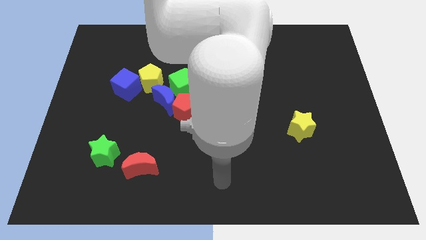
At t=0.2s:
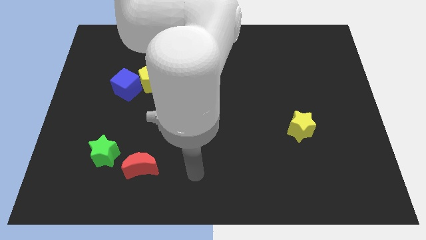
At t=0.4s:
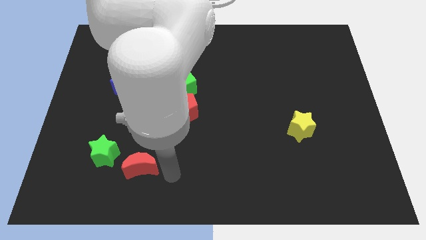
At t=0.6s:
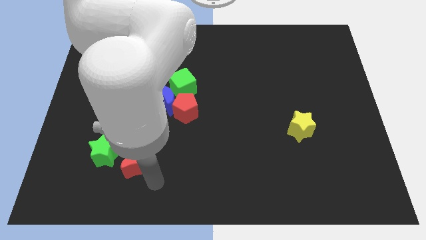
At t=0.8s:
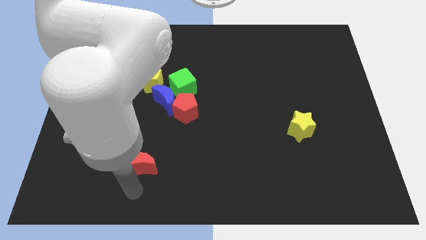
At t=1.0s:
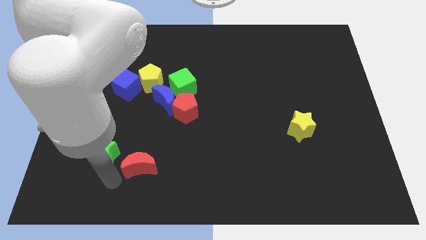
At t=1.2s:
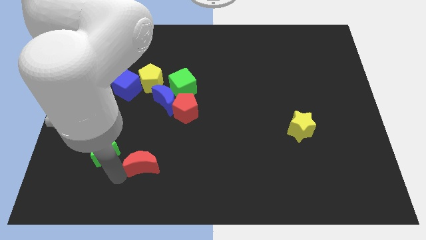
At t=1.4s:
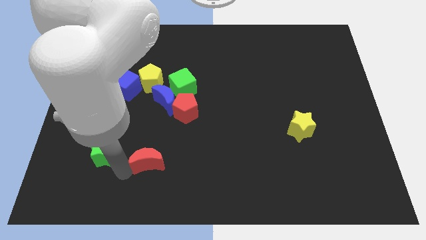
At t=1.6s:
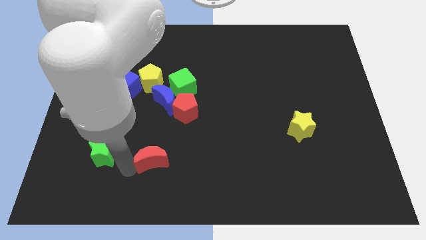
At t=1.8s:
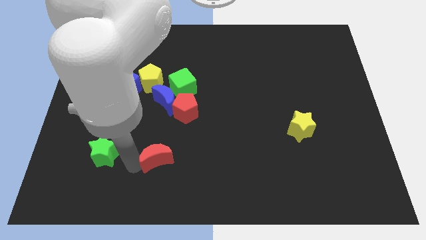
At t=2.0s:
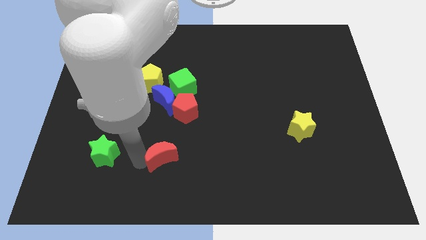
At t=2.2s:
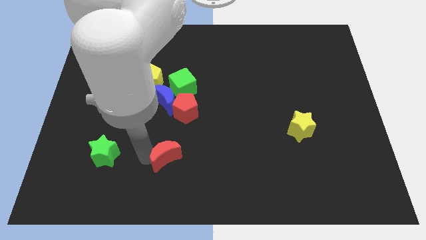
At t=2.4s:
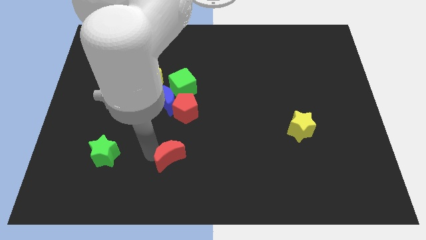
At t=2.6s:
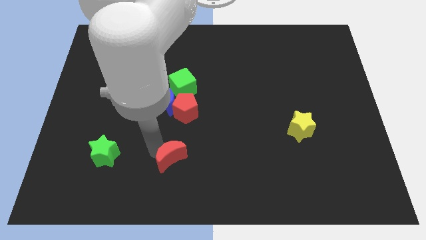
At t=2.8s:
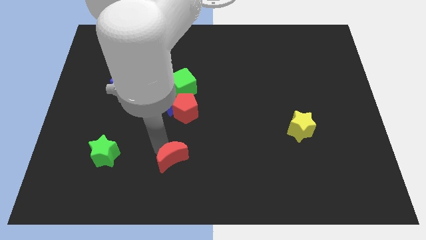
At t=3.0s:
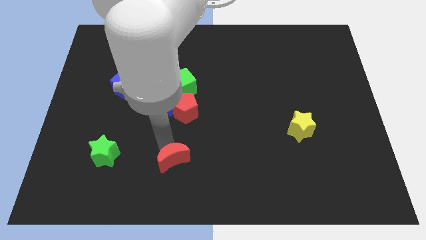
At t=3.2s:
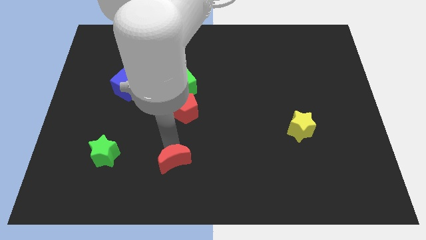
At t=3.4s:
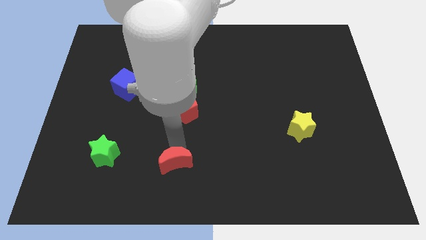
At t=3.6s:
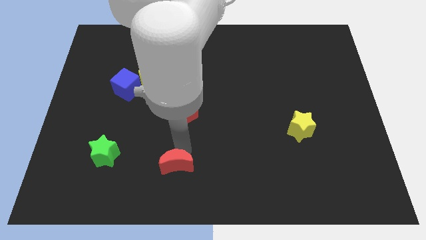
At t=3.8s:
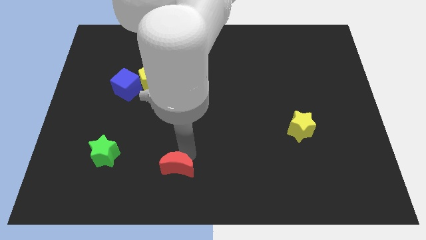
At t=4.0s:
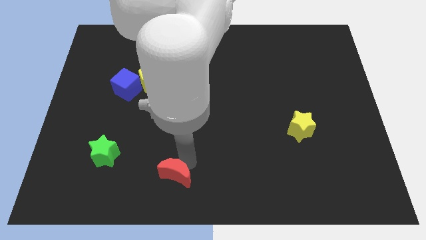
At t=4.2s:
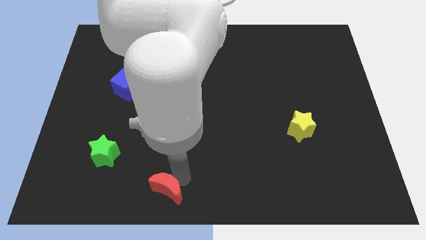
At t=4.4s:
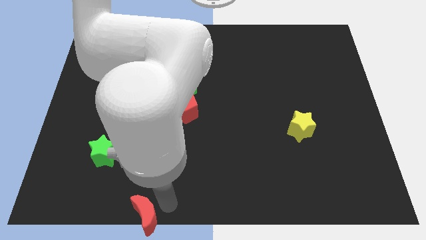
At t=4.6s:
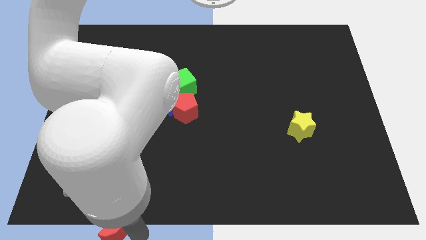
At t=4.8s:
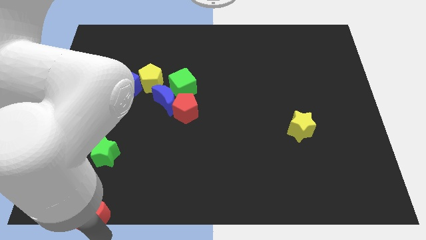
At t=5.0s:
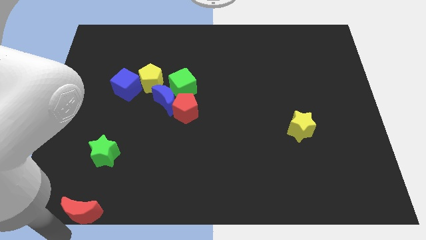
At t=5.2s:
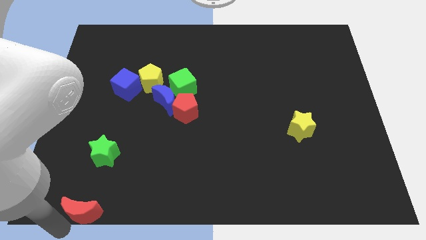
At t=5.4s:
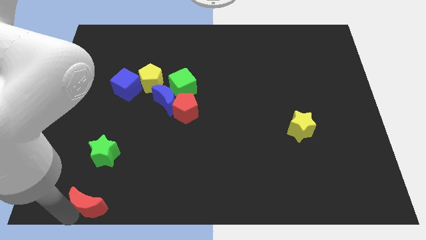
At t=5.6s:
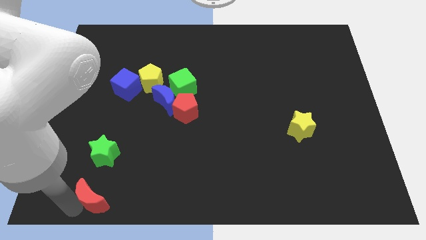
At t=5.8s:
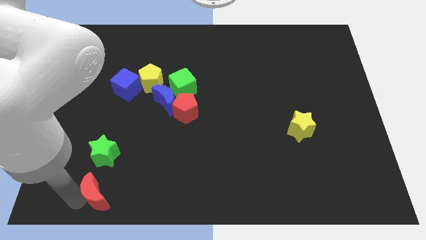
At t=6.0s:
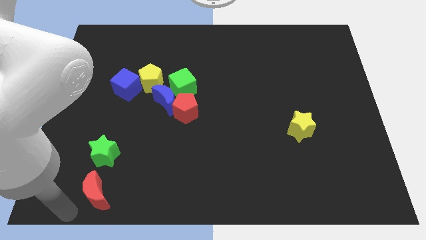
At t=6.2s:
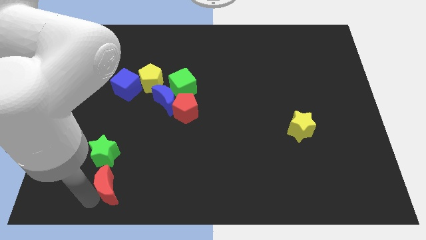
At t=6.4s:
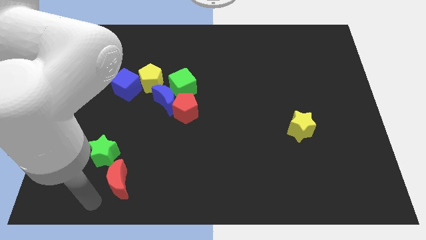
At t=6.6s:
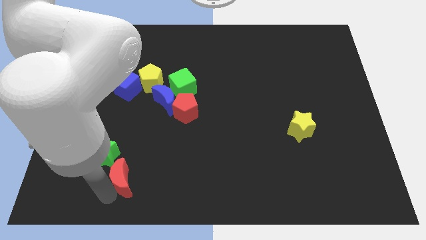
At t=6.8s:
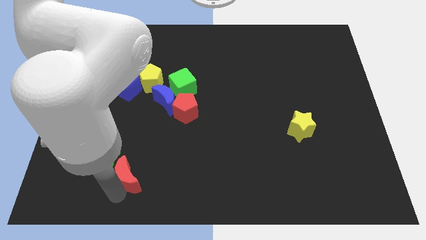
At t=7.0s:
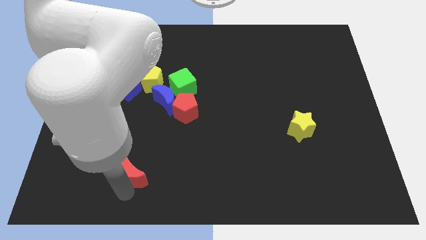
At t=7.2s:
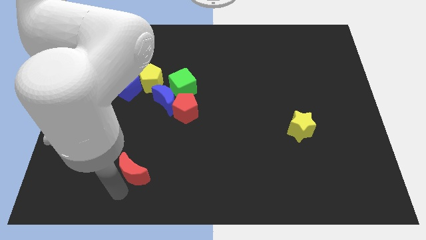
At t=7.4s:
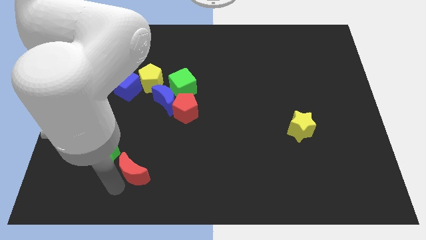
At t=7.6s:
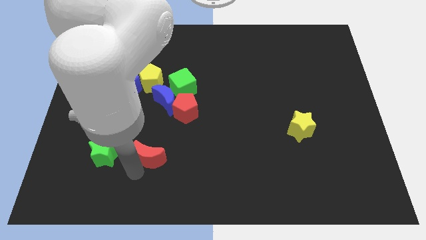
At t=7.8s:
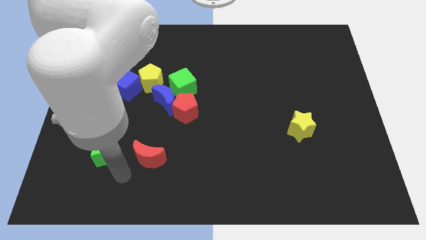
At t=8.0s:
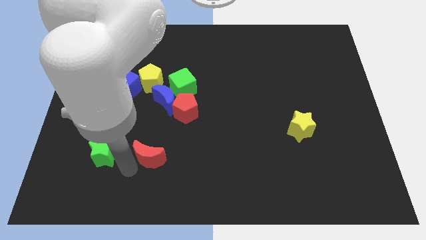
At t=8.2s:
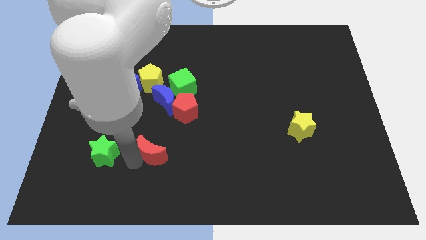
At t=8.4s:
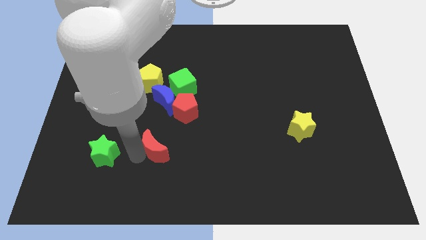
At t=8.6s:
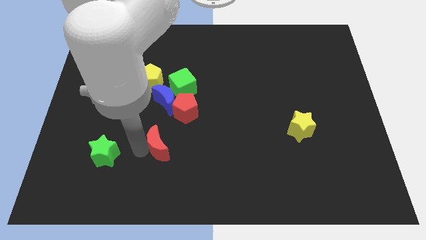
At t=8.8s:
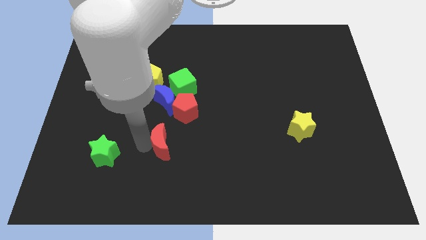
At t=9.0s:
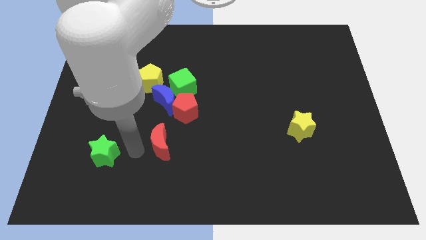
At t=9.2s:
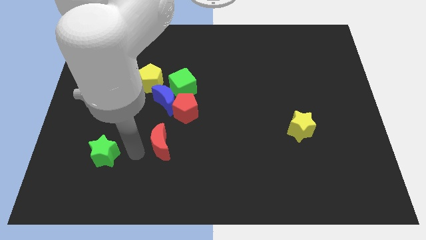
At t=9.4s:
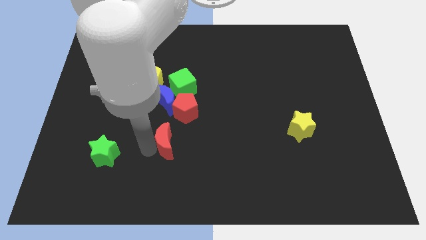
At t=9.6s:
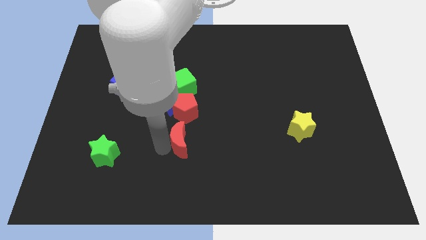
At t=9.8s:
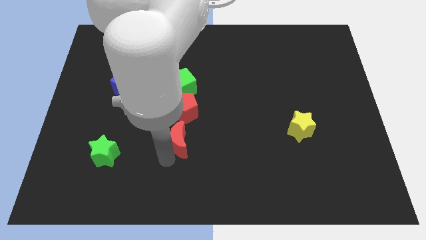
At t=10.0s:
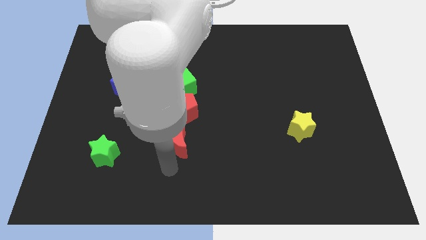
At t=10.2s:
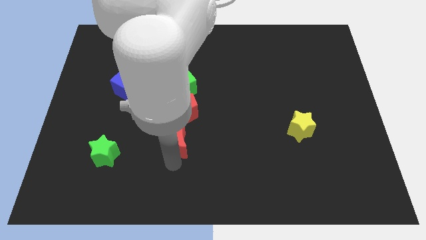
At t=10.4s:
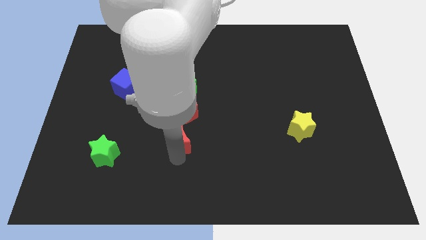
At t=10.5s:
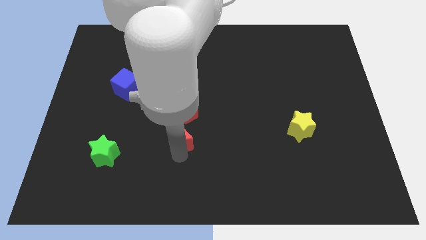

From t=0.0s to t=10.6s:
push the red moon diagonally down and to the right of the blue moon

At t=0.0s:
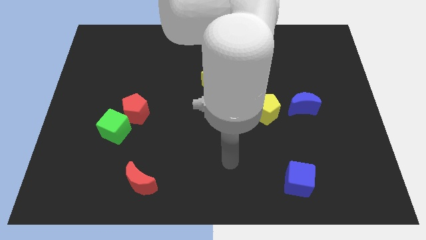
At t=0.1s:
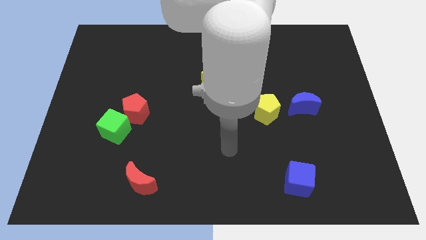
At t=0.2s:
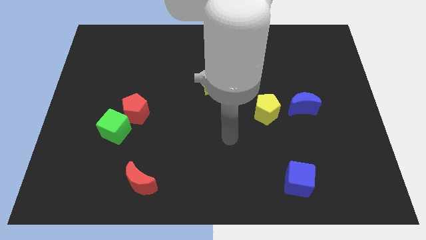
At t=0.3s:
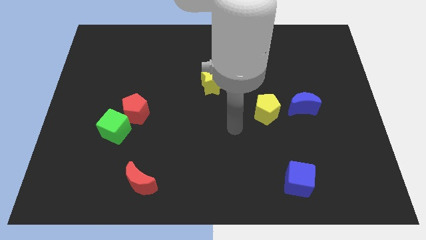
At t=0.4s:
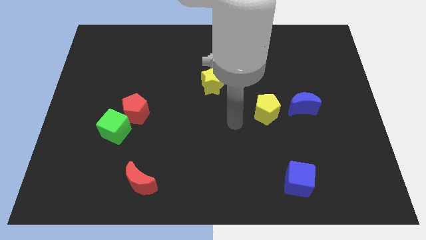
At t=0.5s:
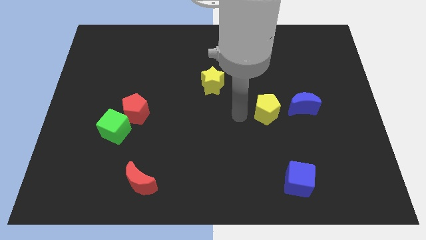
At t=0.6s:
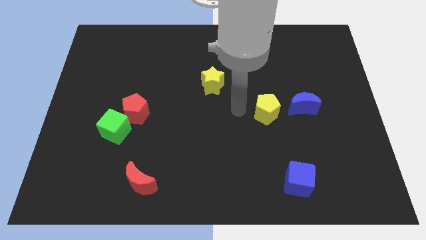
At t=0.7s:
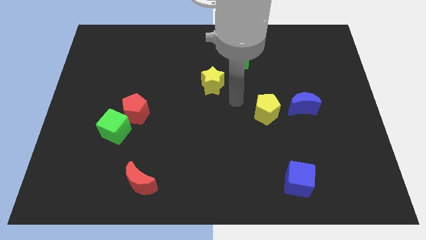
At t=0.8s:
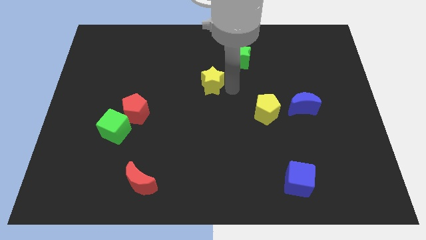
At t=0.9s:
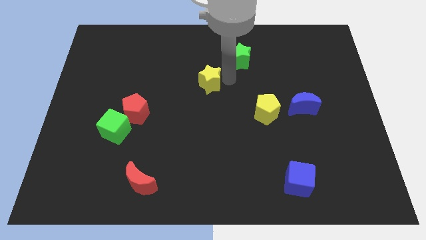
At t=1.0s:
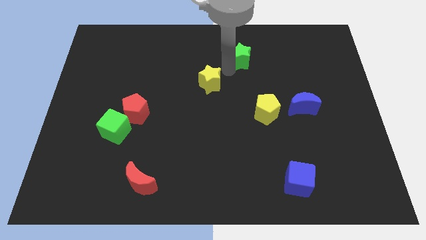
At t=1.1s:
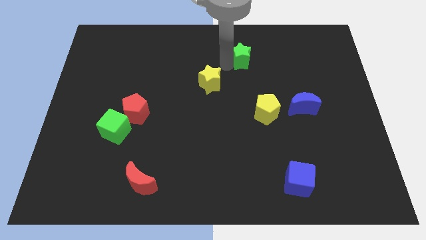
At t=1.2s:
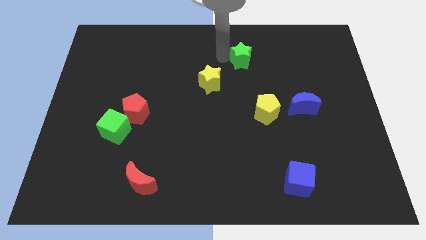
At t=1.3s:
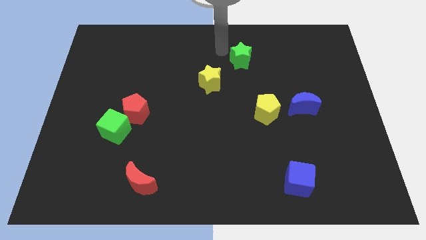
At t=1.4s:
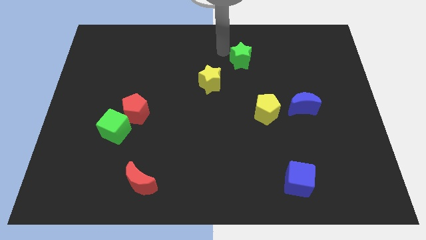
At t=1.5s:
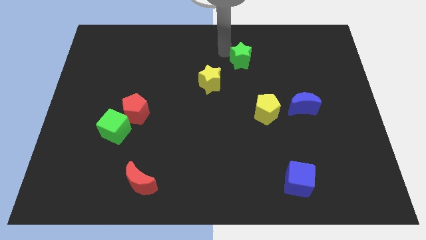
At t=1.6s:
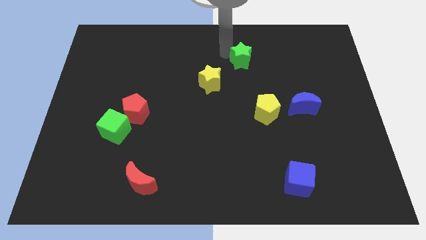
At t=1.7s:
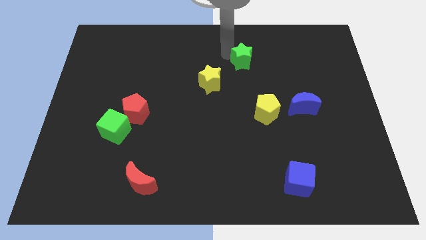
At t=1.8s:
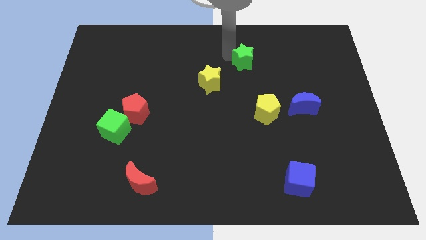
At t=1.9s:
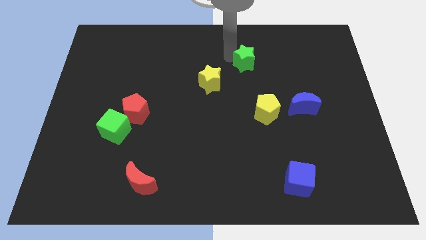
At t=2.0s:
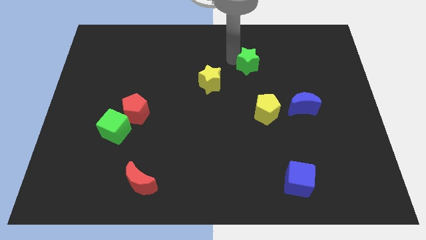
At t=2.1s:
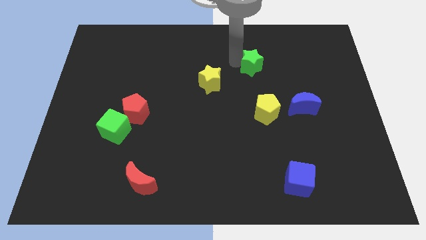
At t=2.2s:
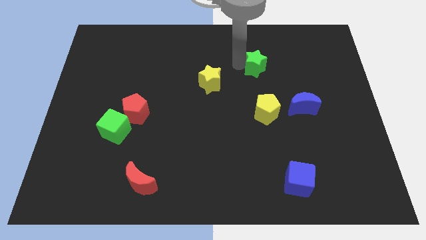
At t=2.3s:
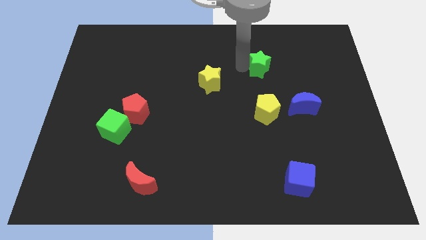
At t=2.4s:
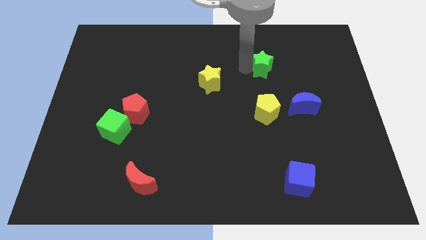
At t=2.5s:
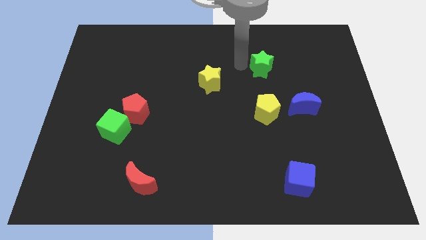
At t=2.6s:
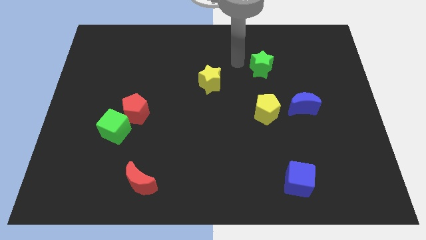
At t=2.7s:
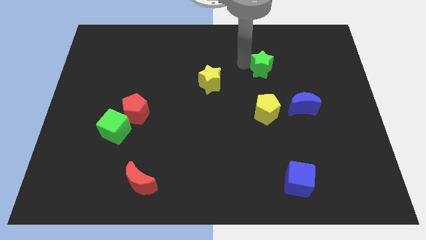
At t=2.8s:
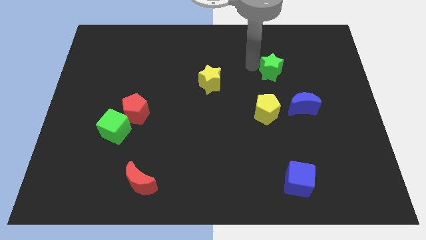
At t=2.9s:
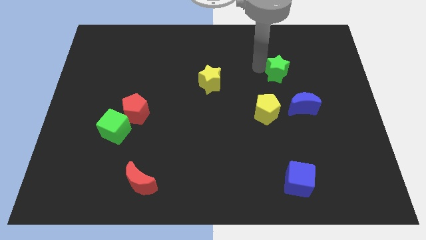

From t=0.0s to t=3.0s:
slide the green star above the blue moon
